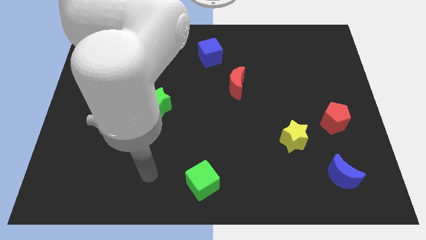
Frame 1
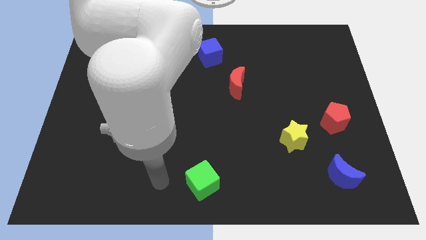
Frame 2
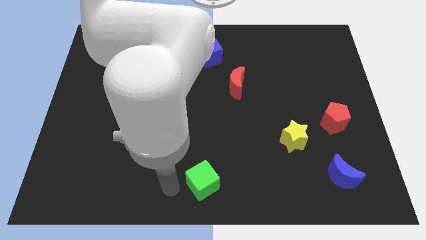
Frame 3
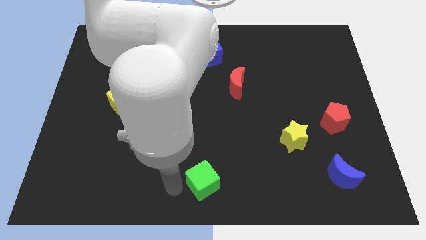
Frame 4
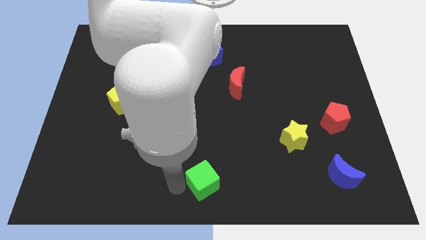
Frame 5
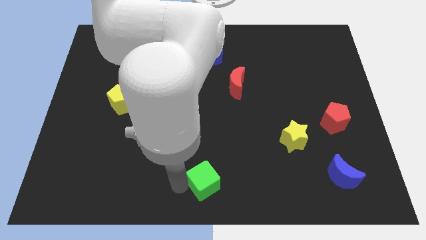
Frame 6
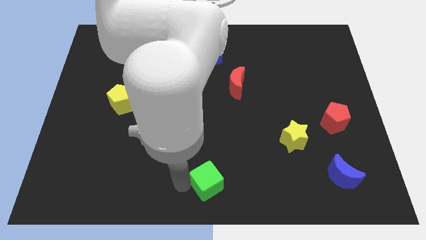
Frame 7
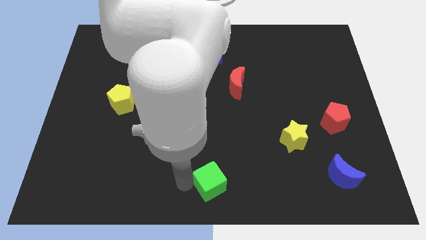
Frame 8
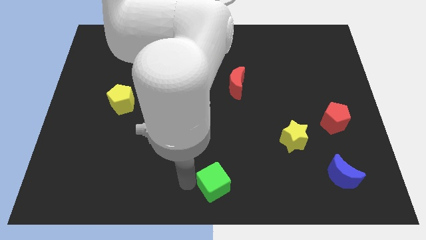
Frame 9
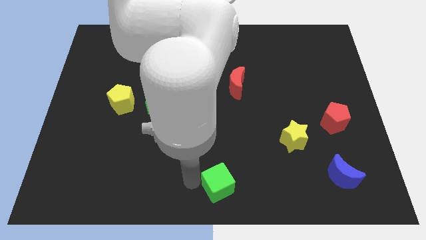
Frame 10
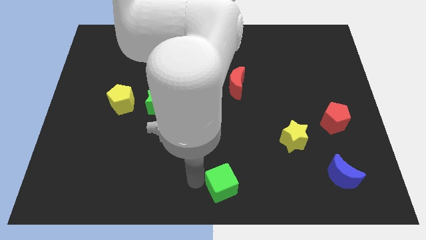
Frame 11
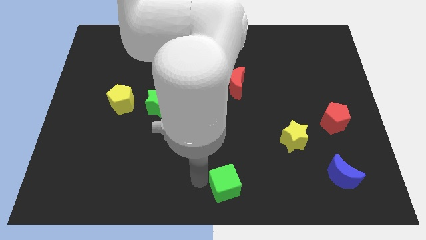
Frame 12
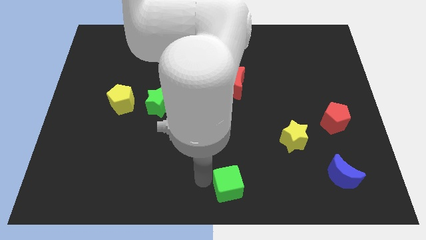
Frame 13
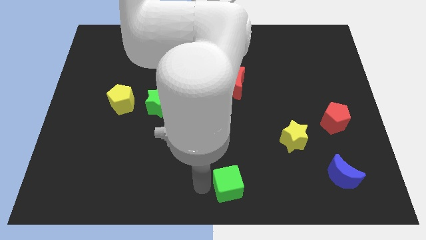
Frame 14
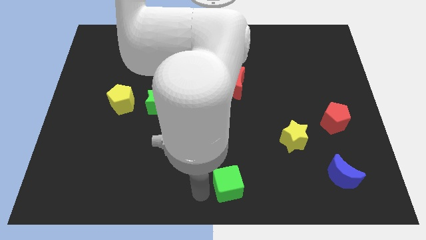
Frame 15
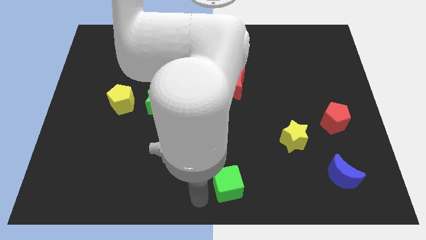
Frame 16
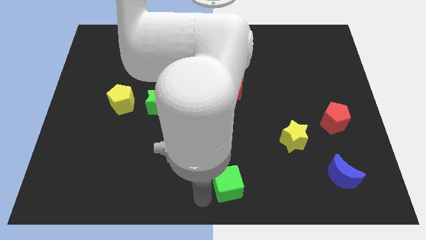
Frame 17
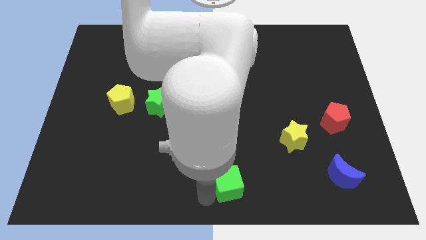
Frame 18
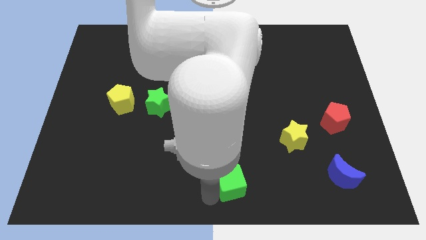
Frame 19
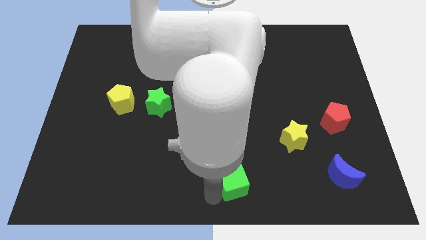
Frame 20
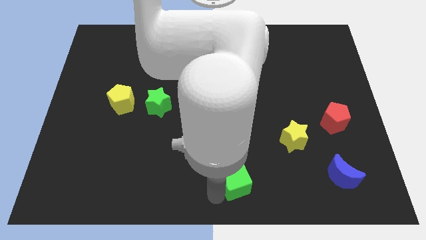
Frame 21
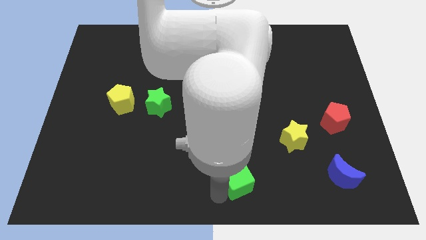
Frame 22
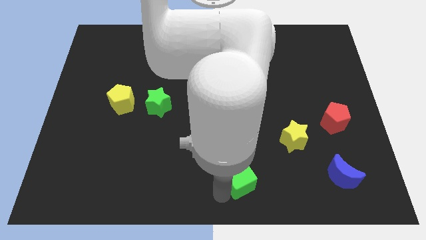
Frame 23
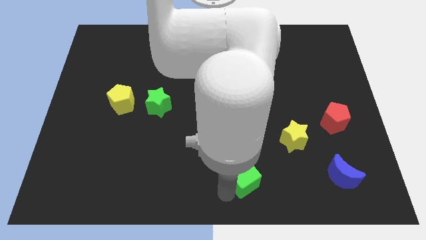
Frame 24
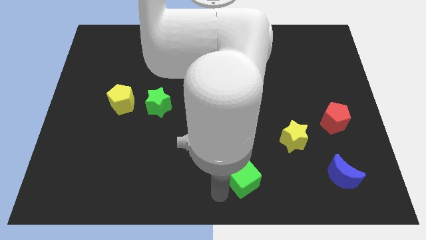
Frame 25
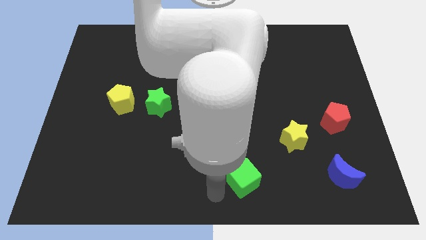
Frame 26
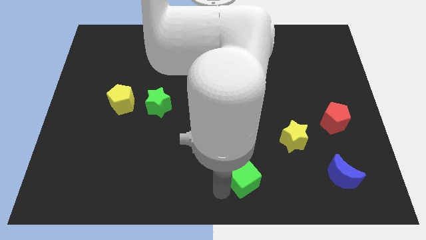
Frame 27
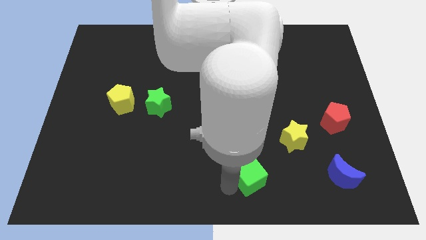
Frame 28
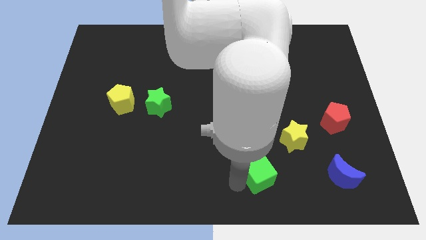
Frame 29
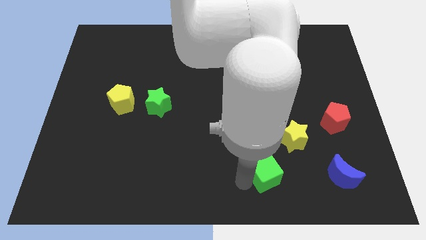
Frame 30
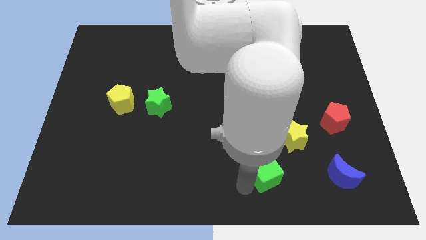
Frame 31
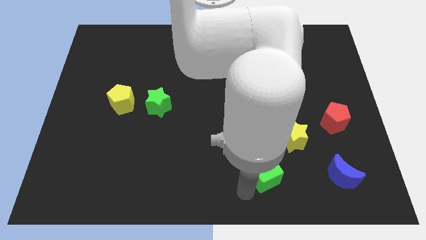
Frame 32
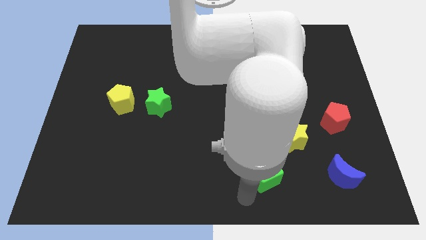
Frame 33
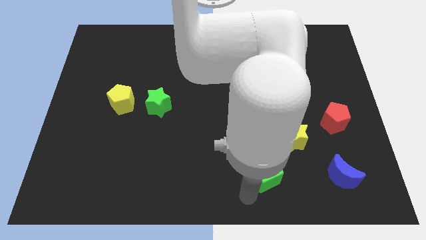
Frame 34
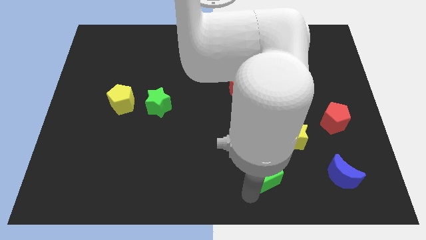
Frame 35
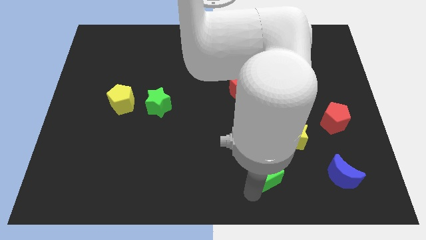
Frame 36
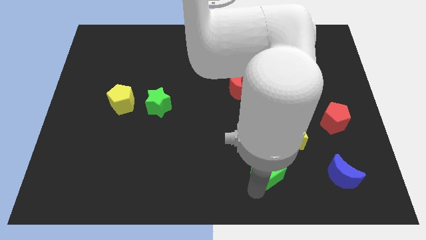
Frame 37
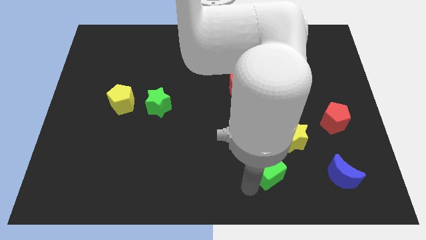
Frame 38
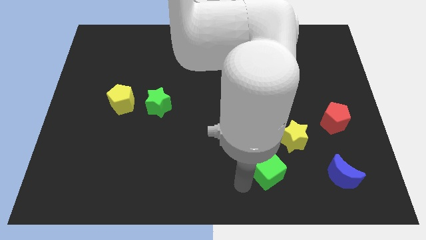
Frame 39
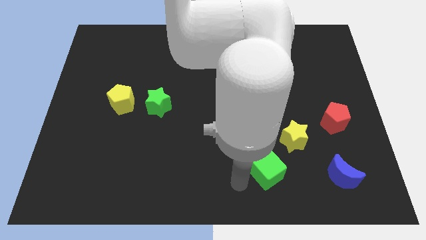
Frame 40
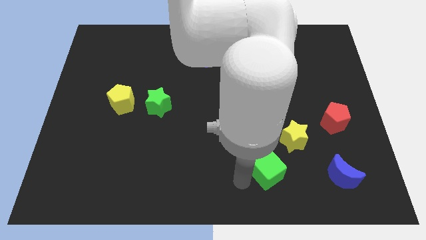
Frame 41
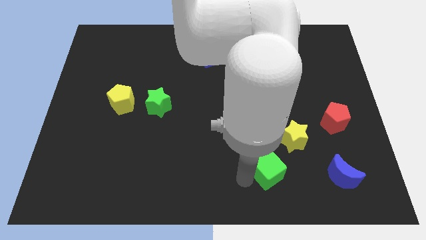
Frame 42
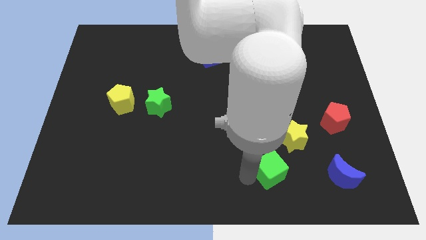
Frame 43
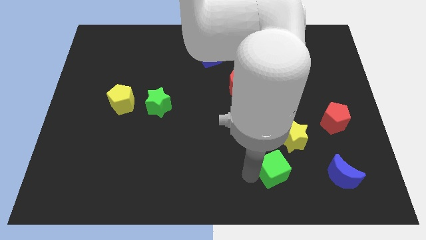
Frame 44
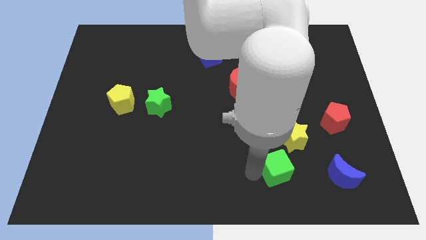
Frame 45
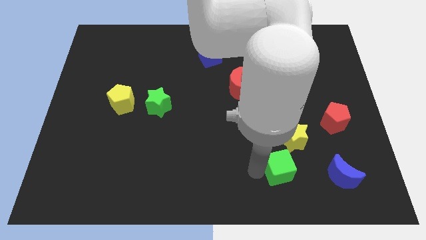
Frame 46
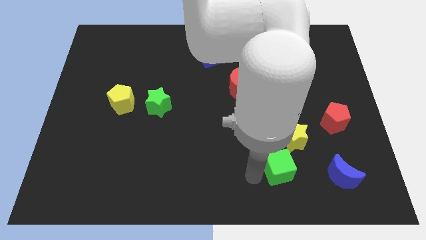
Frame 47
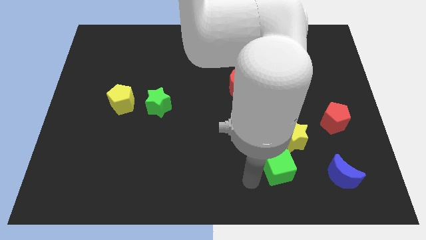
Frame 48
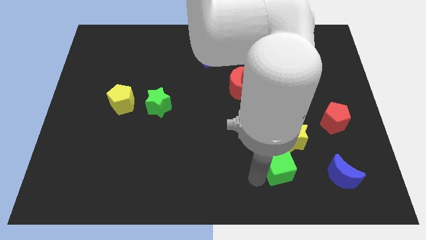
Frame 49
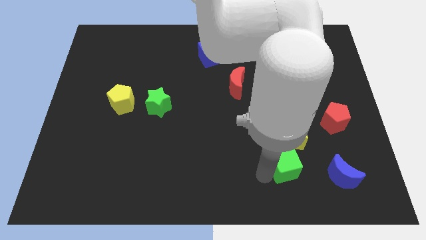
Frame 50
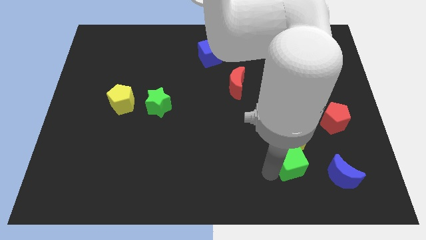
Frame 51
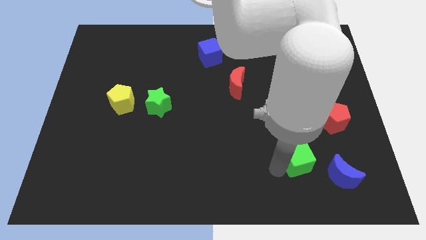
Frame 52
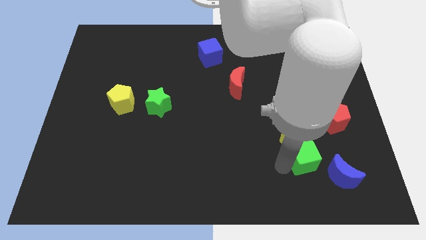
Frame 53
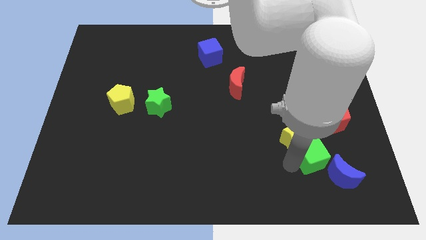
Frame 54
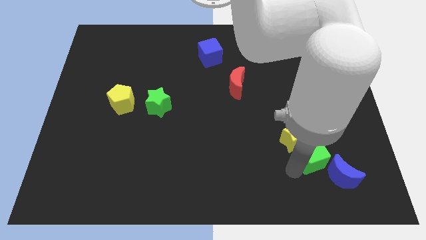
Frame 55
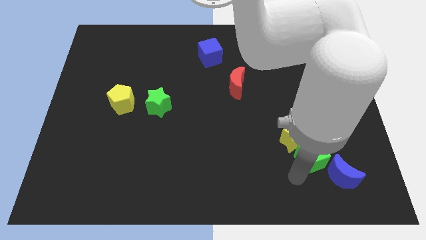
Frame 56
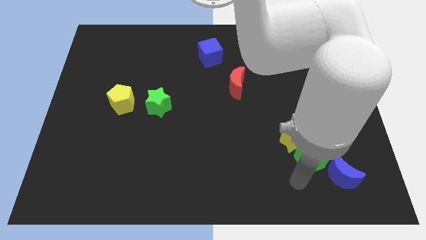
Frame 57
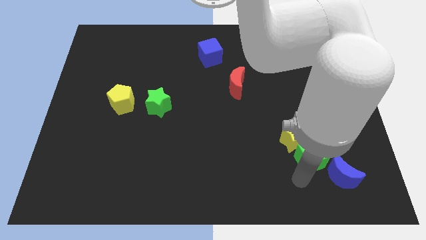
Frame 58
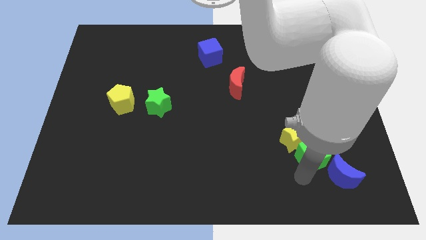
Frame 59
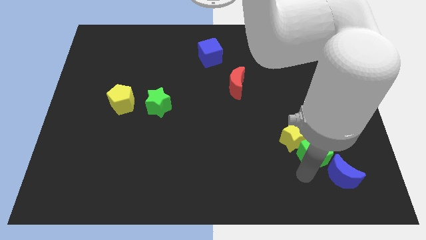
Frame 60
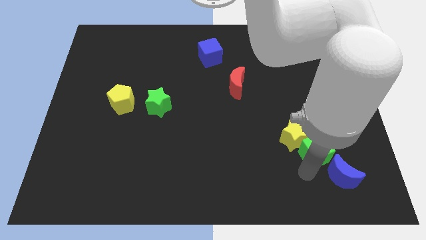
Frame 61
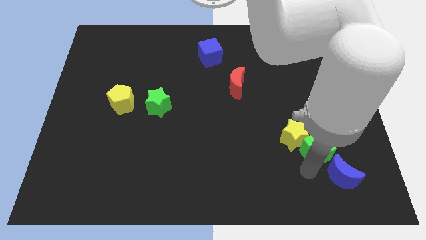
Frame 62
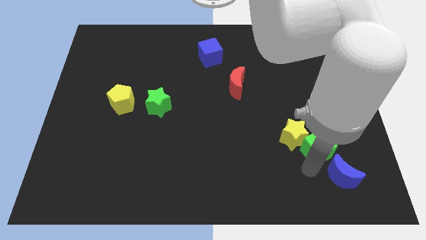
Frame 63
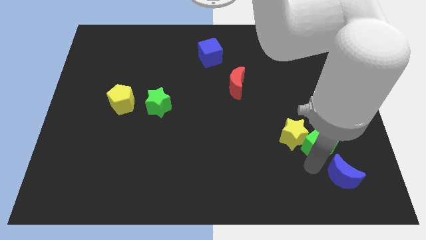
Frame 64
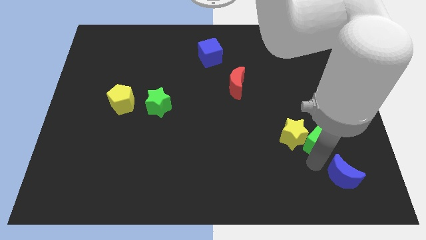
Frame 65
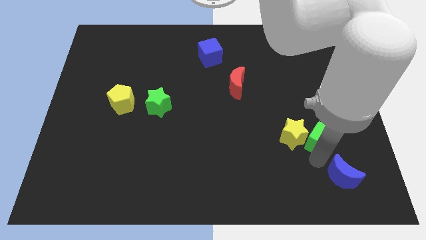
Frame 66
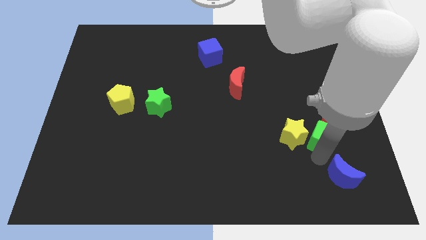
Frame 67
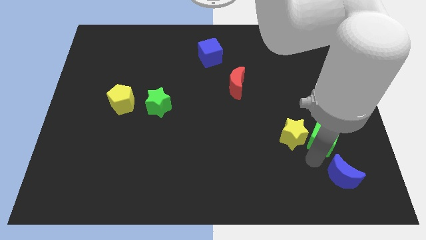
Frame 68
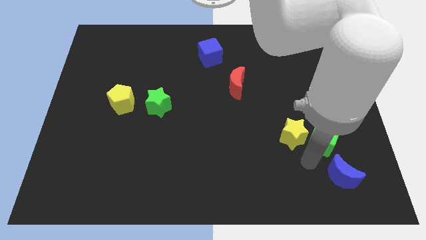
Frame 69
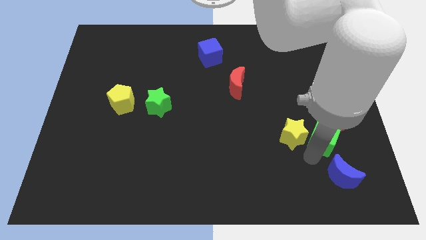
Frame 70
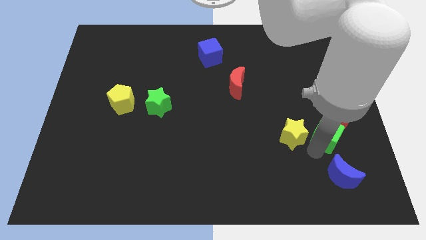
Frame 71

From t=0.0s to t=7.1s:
move the green cube to the red pentagon
